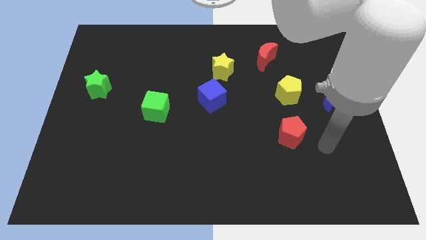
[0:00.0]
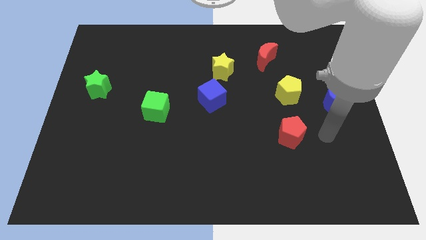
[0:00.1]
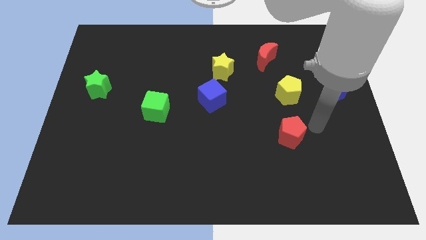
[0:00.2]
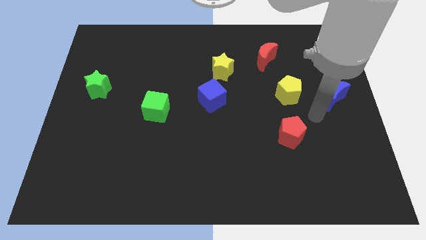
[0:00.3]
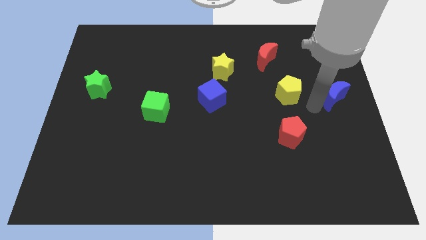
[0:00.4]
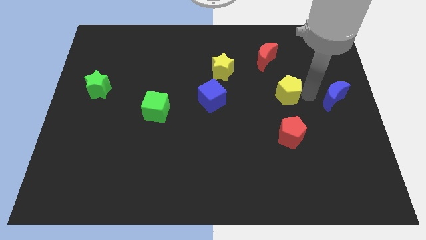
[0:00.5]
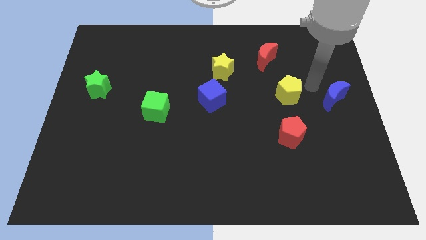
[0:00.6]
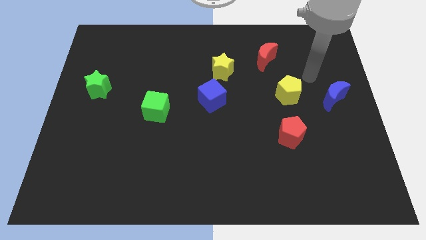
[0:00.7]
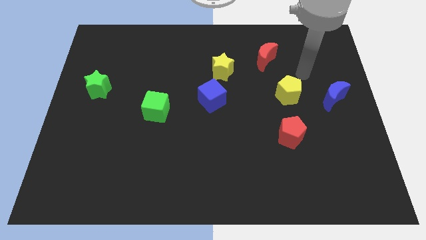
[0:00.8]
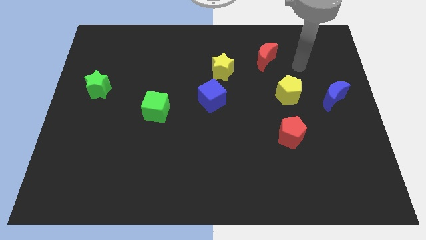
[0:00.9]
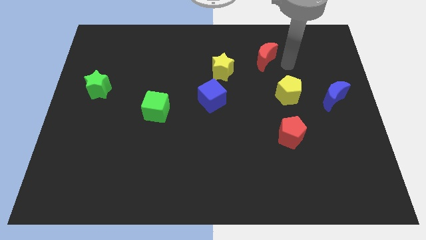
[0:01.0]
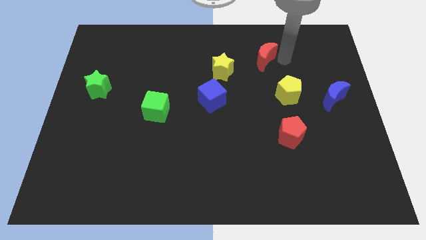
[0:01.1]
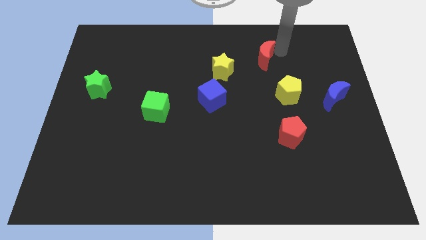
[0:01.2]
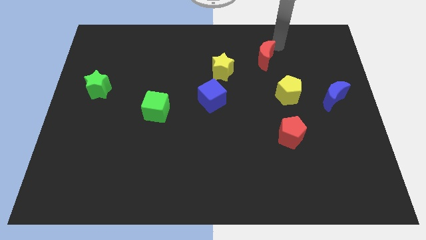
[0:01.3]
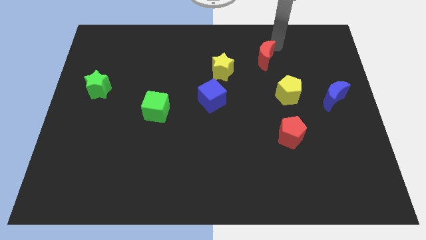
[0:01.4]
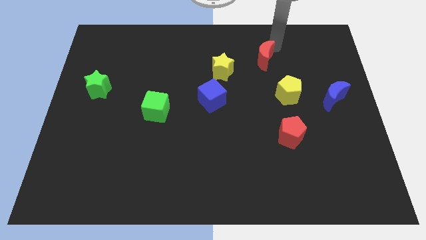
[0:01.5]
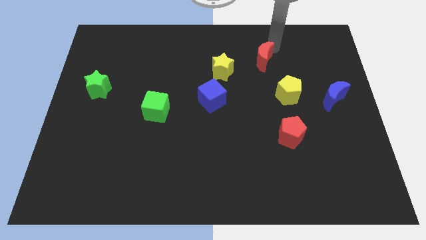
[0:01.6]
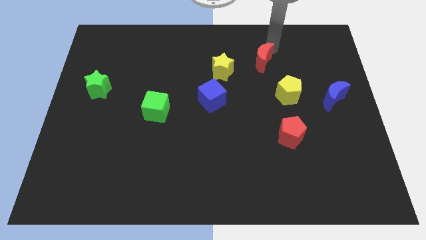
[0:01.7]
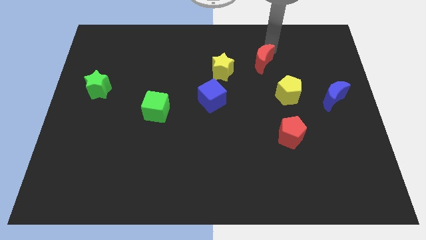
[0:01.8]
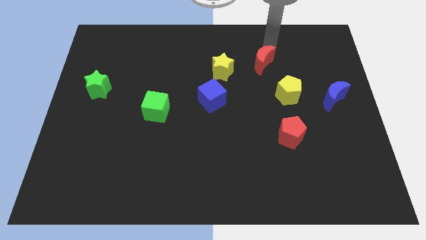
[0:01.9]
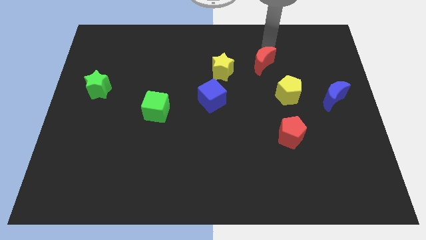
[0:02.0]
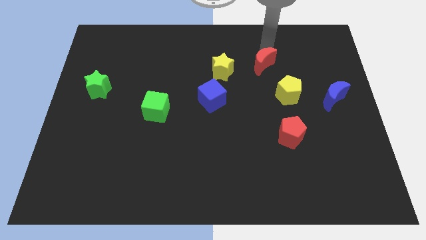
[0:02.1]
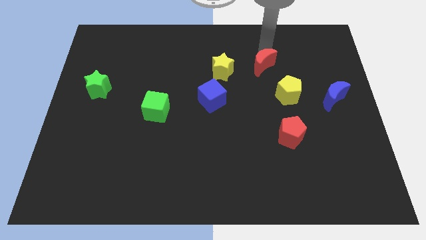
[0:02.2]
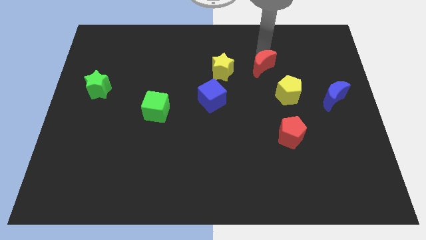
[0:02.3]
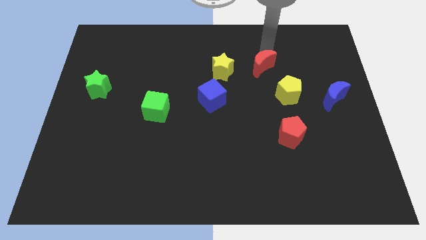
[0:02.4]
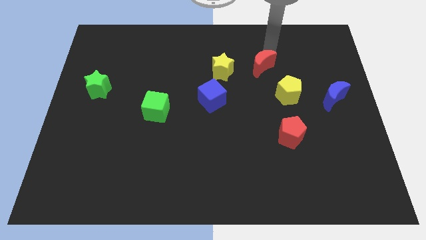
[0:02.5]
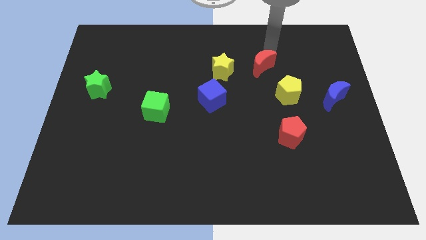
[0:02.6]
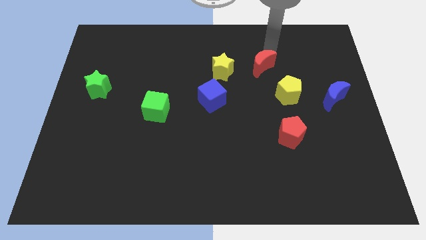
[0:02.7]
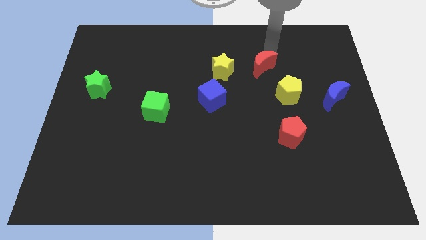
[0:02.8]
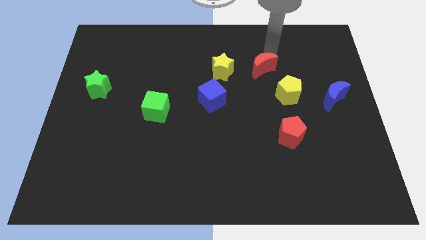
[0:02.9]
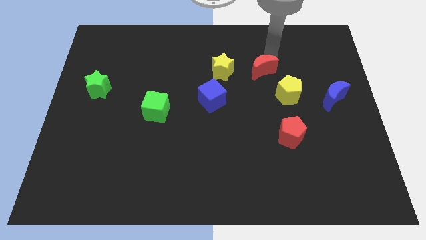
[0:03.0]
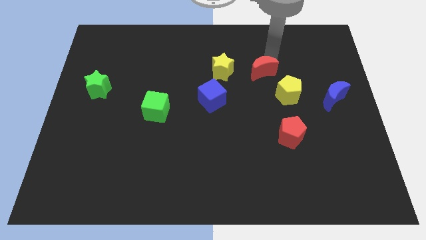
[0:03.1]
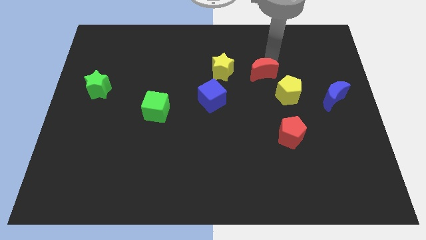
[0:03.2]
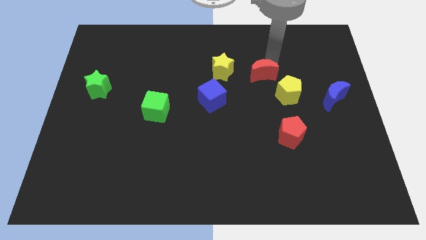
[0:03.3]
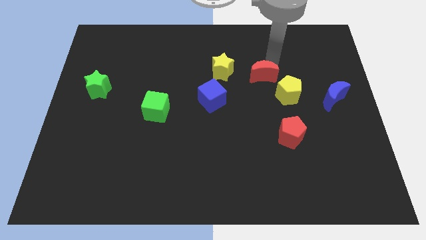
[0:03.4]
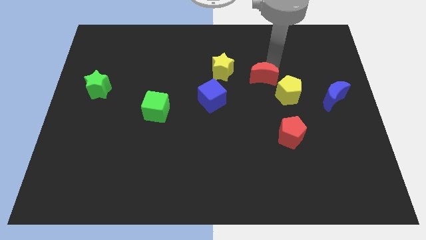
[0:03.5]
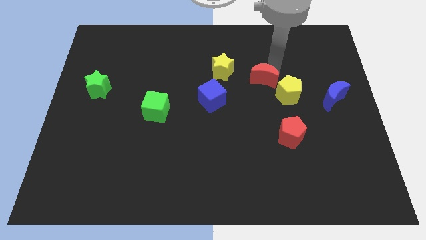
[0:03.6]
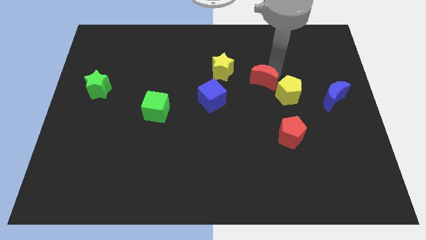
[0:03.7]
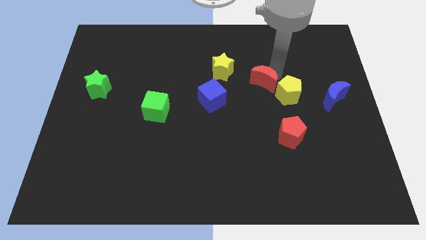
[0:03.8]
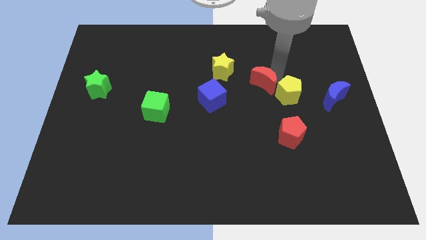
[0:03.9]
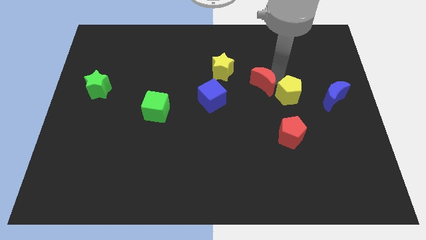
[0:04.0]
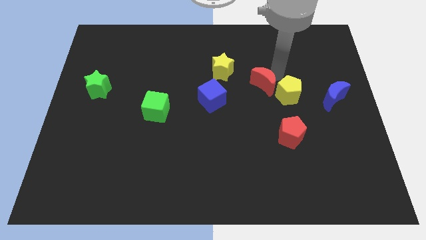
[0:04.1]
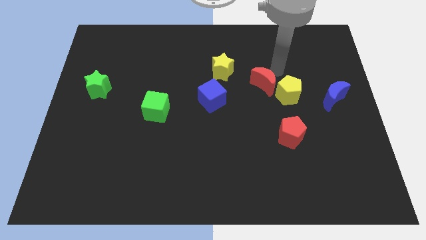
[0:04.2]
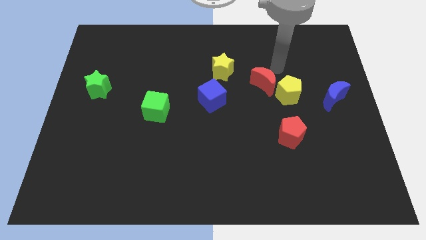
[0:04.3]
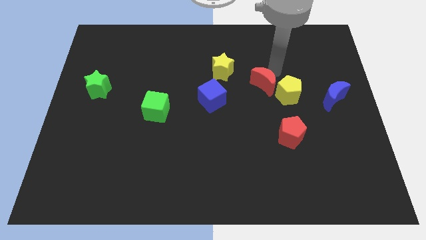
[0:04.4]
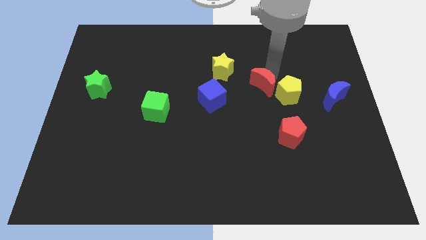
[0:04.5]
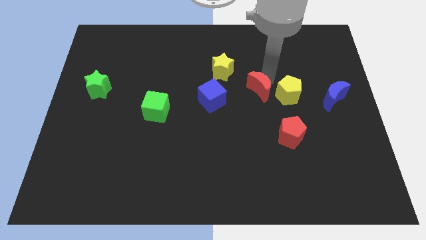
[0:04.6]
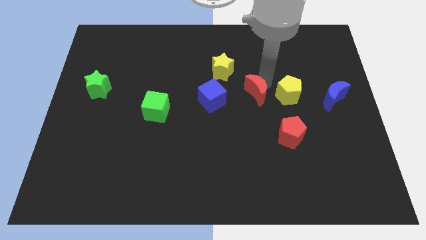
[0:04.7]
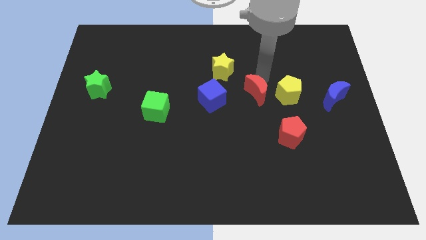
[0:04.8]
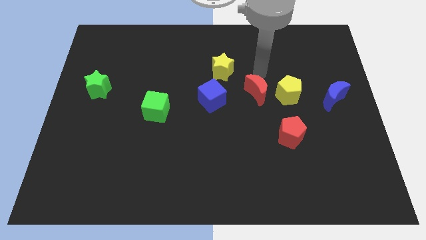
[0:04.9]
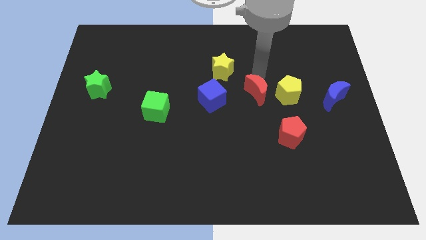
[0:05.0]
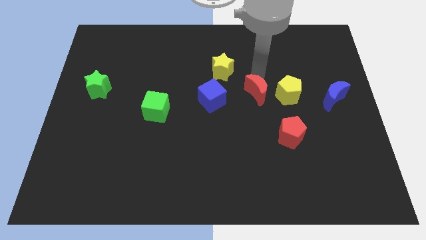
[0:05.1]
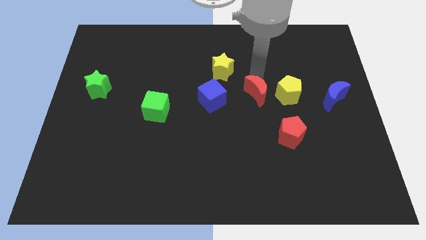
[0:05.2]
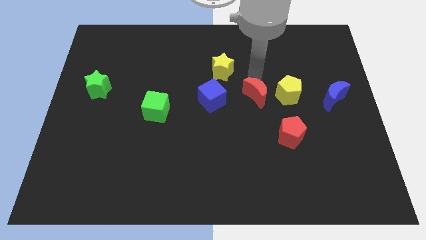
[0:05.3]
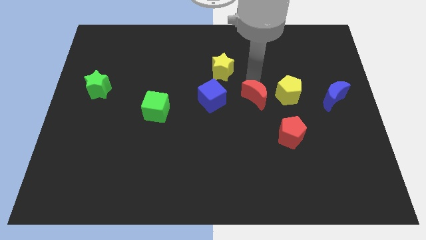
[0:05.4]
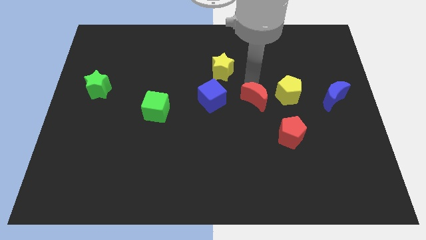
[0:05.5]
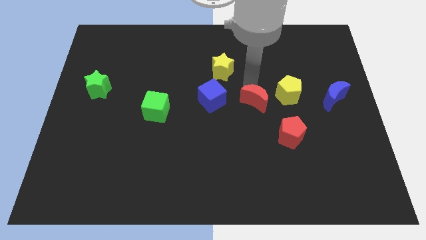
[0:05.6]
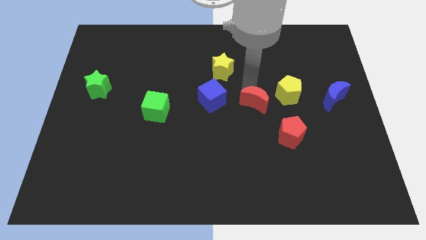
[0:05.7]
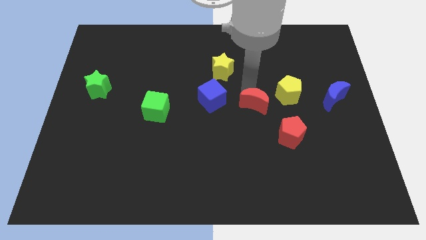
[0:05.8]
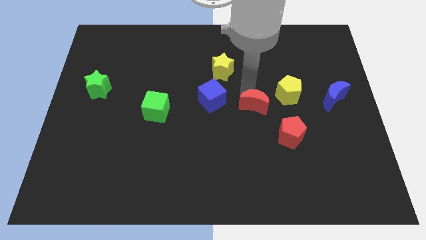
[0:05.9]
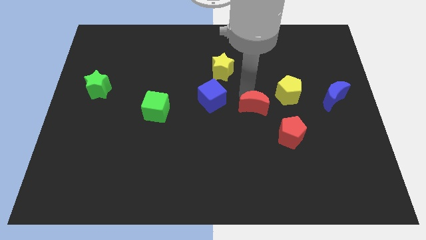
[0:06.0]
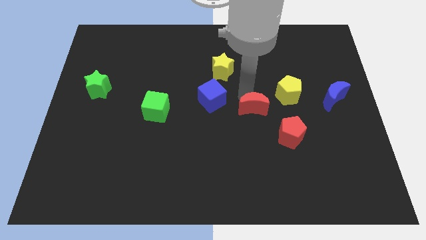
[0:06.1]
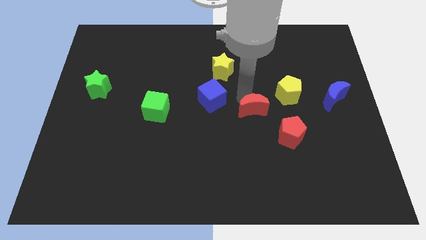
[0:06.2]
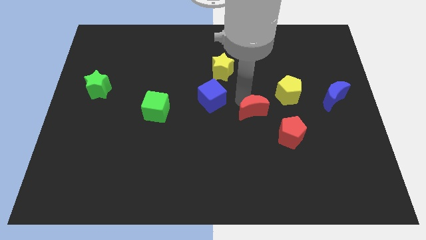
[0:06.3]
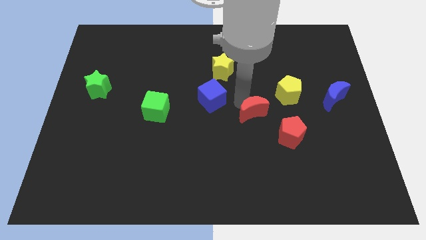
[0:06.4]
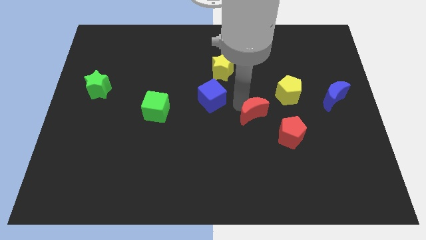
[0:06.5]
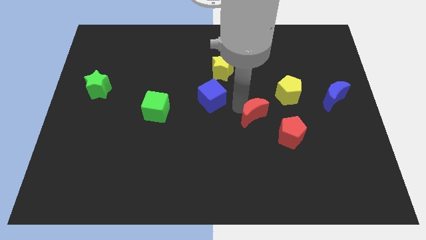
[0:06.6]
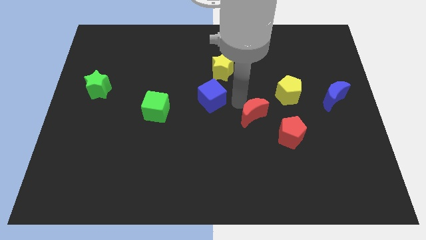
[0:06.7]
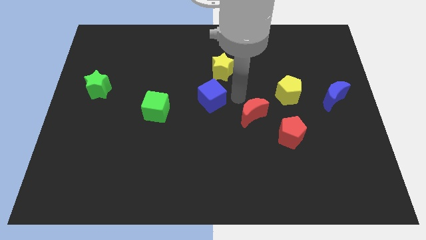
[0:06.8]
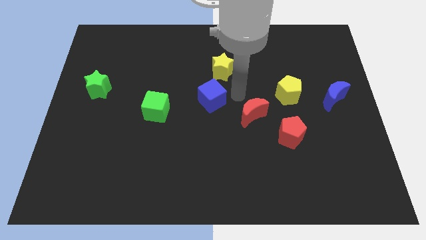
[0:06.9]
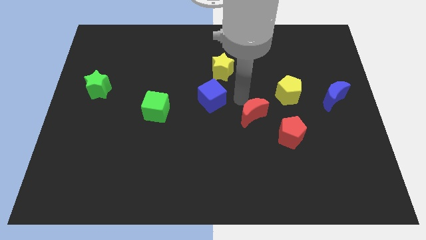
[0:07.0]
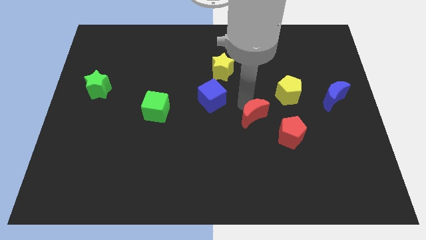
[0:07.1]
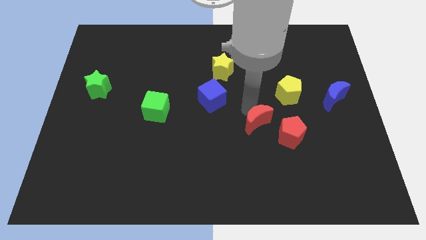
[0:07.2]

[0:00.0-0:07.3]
push the red moon downwards

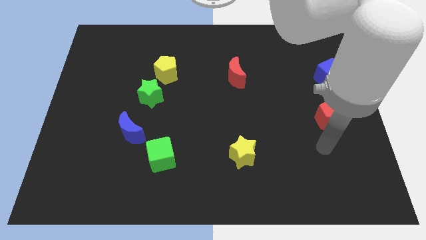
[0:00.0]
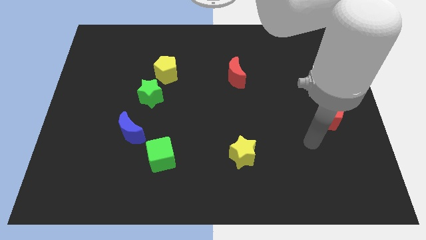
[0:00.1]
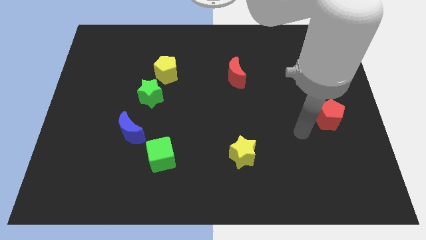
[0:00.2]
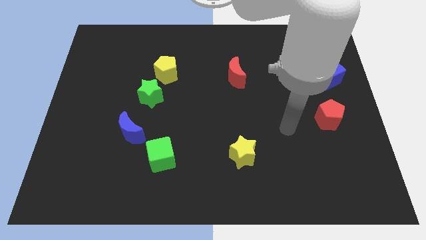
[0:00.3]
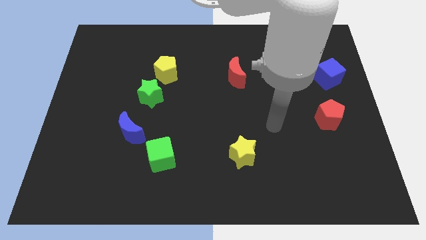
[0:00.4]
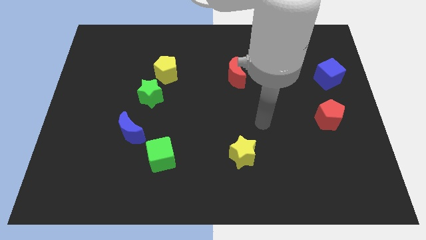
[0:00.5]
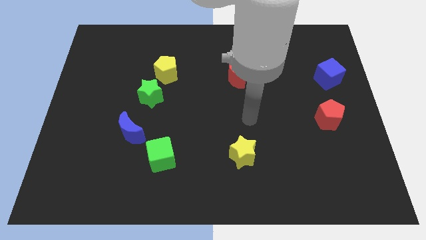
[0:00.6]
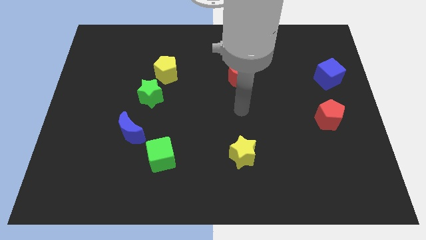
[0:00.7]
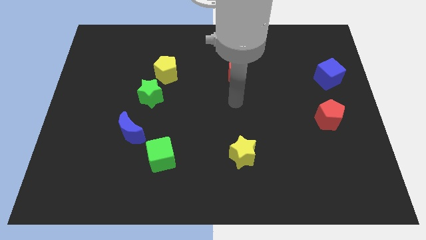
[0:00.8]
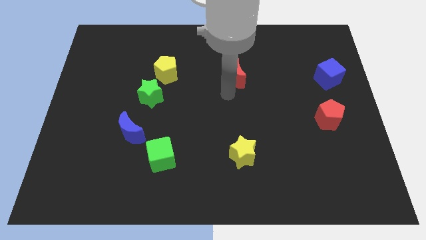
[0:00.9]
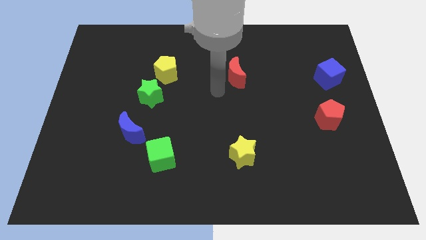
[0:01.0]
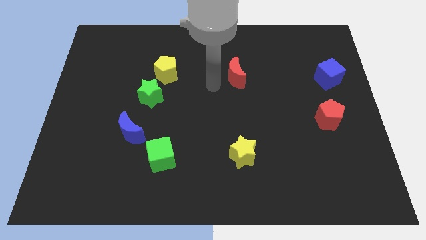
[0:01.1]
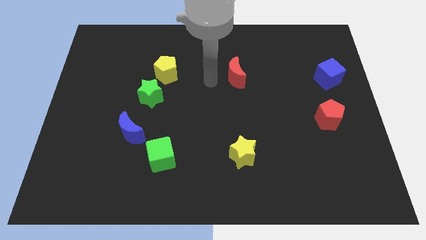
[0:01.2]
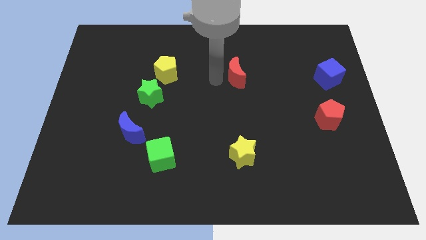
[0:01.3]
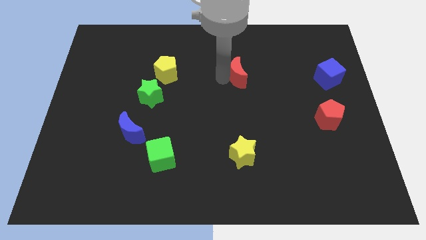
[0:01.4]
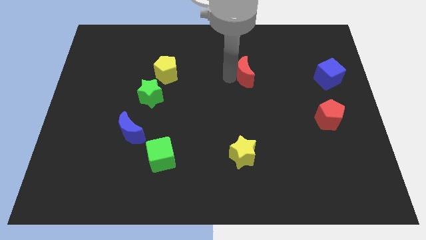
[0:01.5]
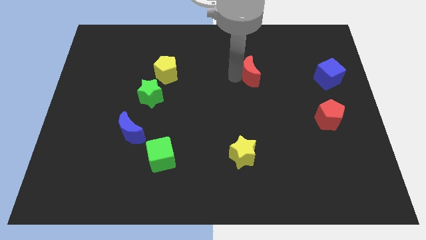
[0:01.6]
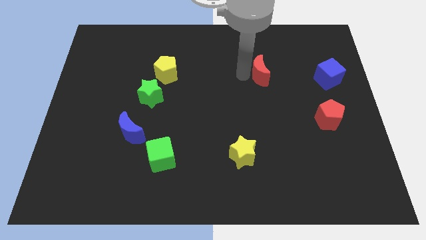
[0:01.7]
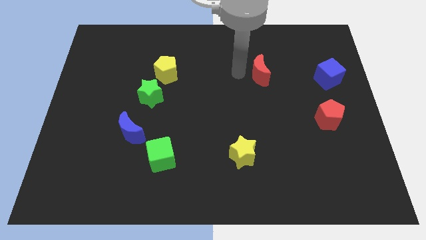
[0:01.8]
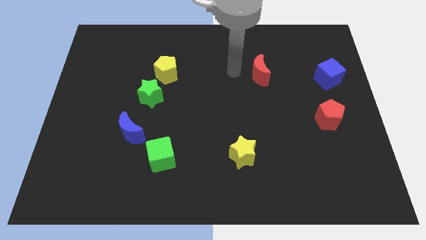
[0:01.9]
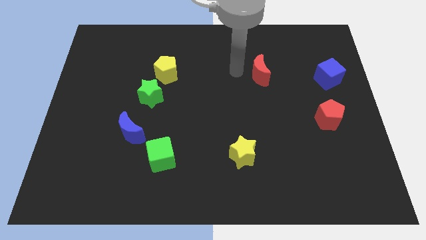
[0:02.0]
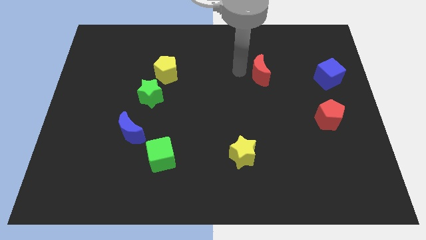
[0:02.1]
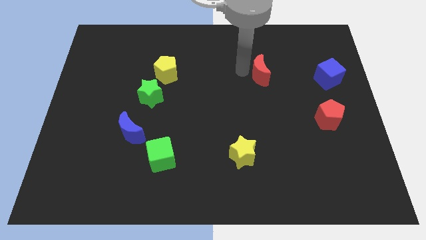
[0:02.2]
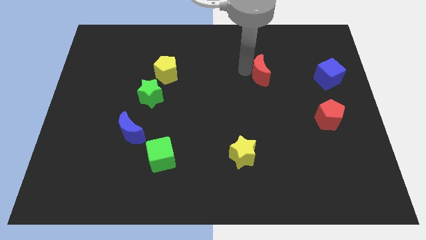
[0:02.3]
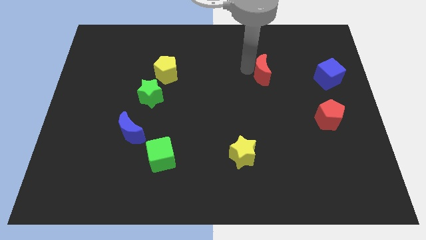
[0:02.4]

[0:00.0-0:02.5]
slightly move the red moon right
